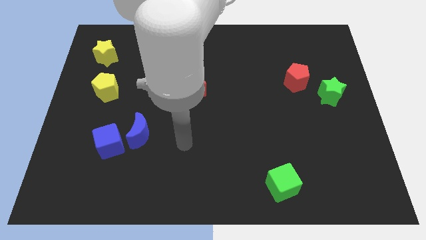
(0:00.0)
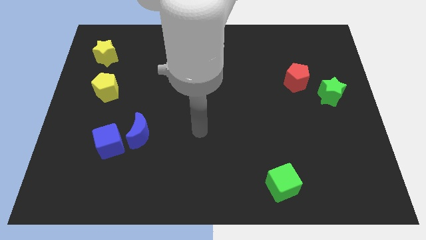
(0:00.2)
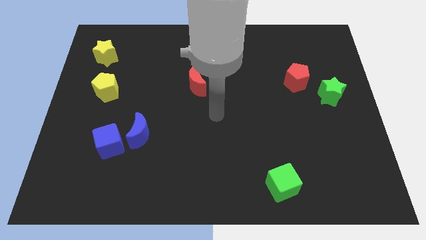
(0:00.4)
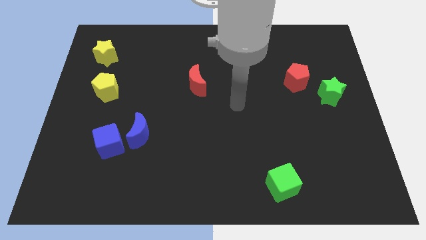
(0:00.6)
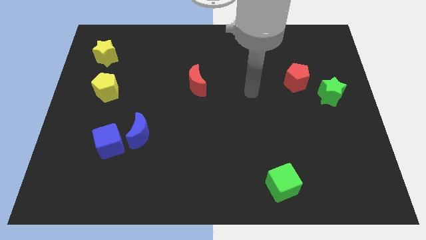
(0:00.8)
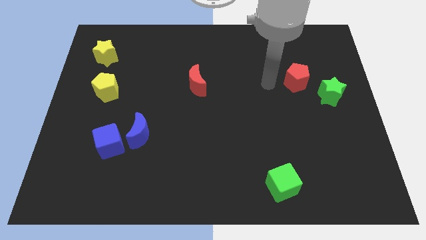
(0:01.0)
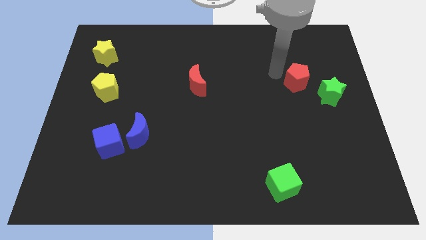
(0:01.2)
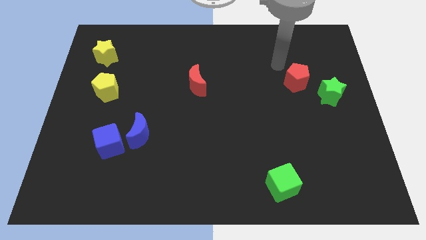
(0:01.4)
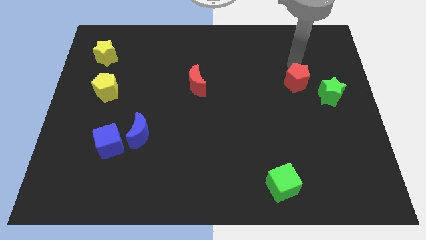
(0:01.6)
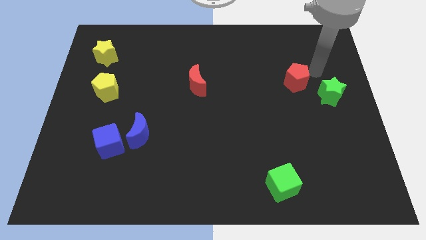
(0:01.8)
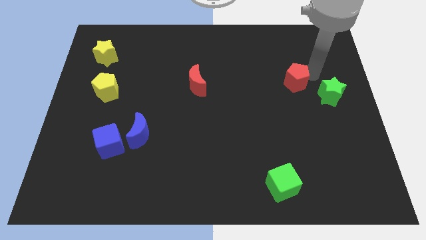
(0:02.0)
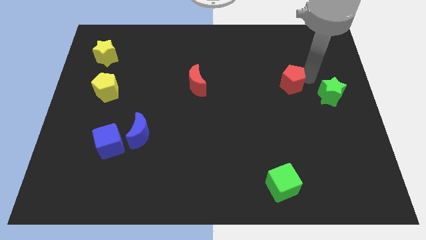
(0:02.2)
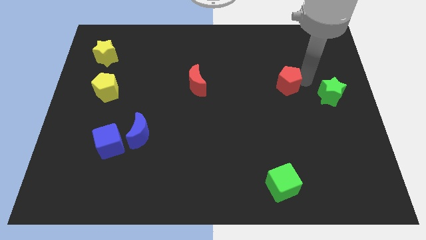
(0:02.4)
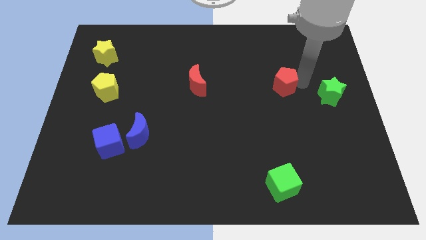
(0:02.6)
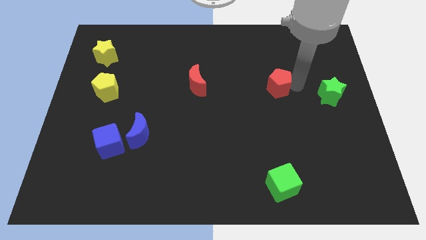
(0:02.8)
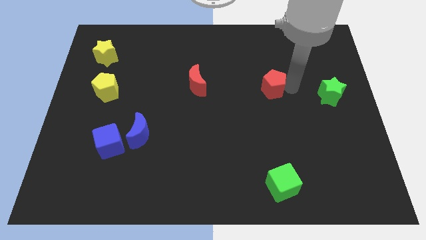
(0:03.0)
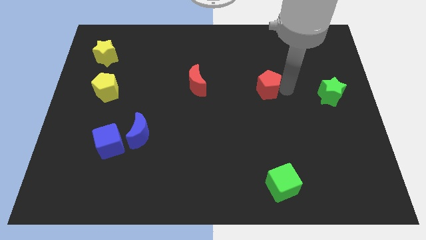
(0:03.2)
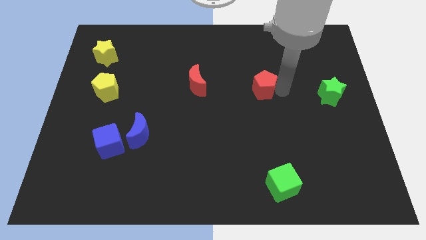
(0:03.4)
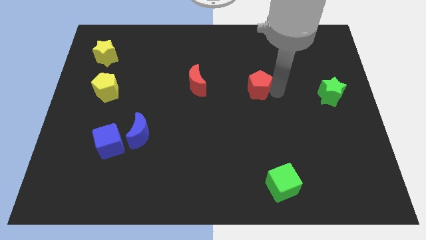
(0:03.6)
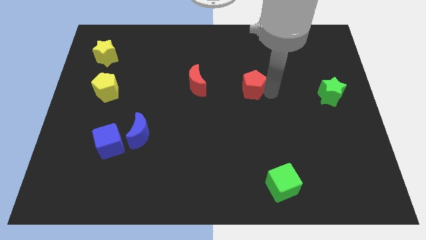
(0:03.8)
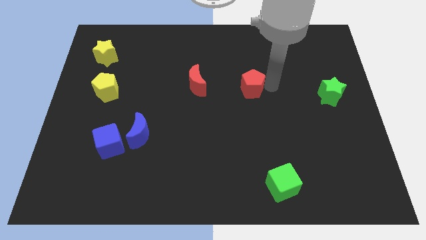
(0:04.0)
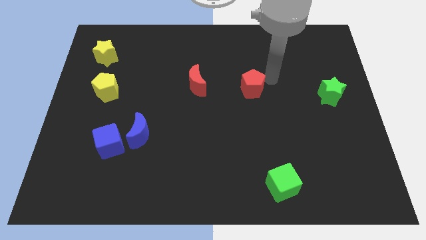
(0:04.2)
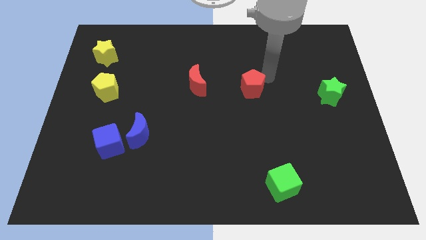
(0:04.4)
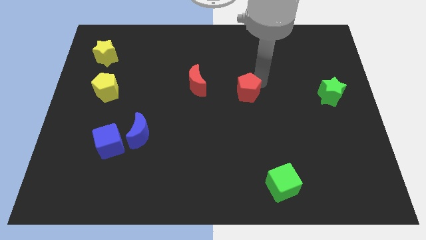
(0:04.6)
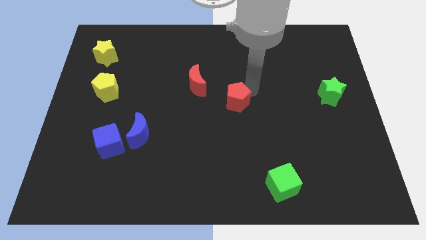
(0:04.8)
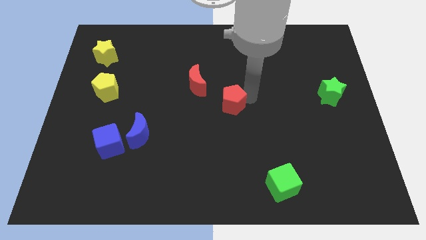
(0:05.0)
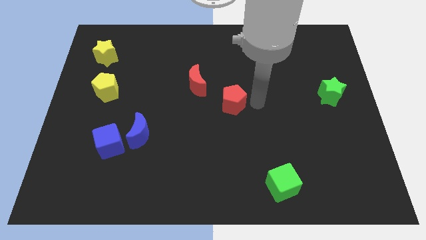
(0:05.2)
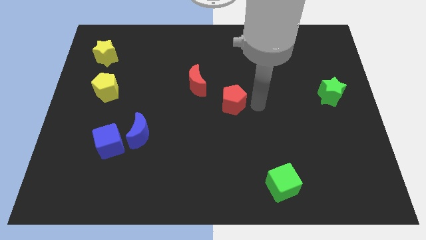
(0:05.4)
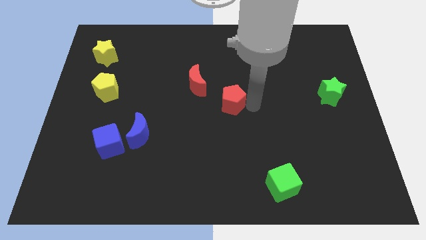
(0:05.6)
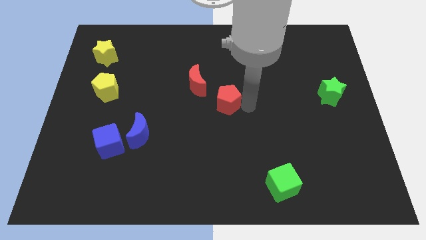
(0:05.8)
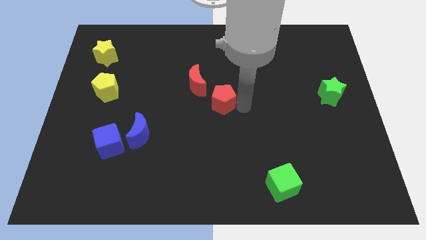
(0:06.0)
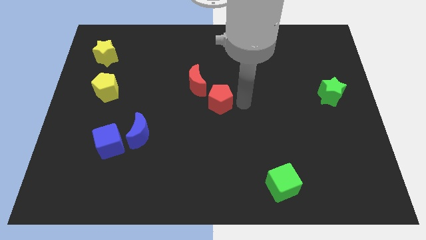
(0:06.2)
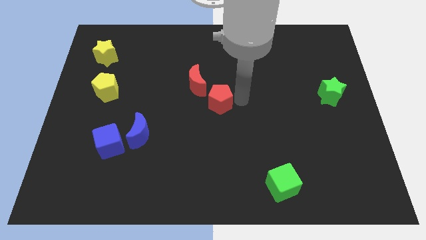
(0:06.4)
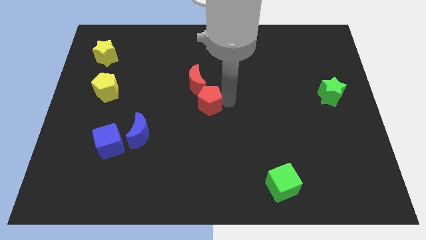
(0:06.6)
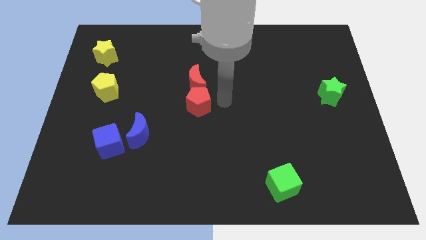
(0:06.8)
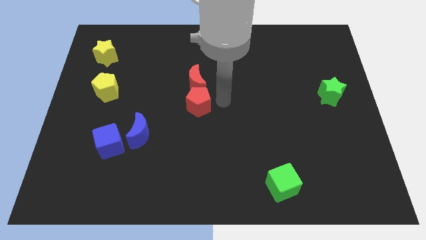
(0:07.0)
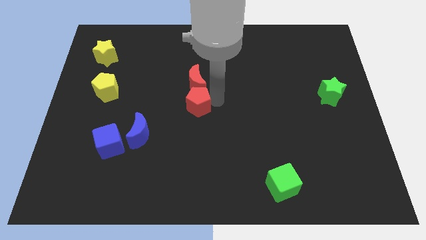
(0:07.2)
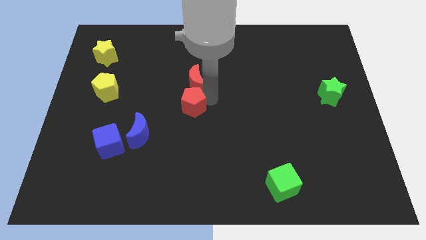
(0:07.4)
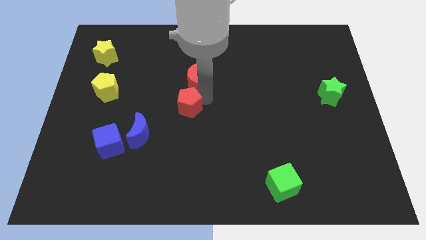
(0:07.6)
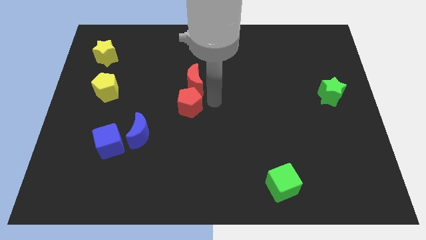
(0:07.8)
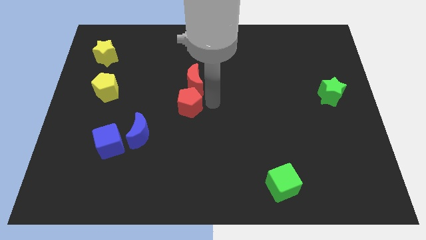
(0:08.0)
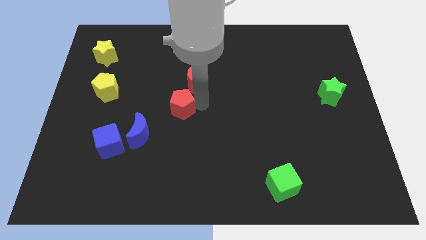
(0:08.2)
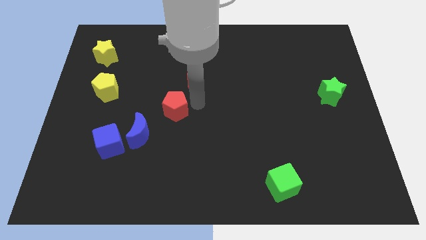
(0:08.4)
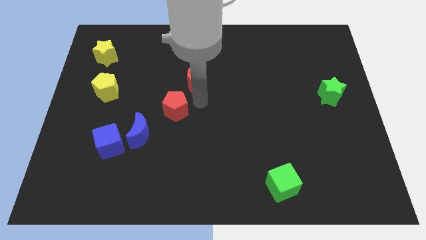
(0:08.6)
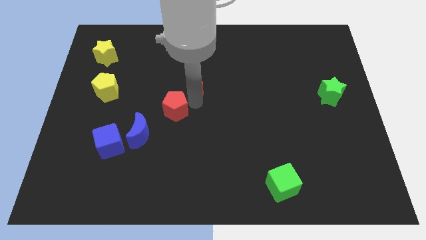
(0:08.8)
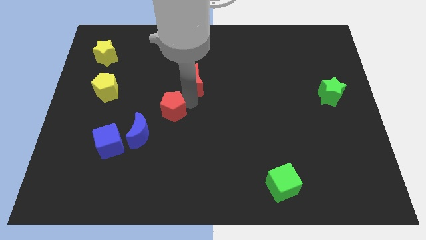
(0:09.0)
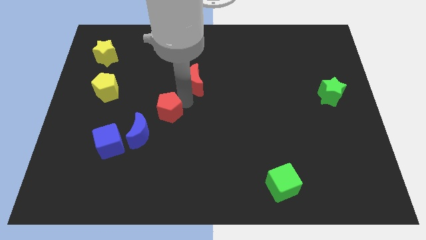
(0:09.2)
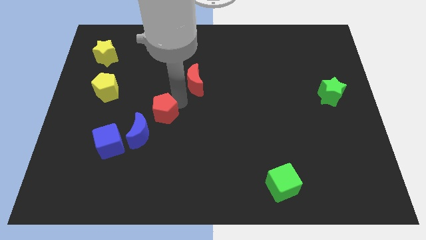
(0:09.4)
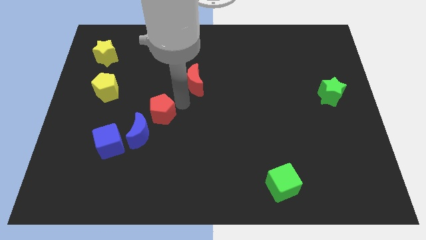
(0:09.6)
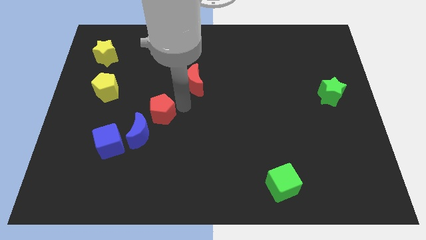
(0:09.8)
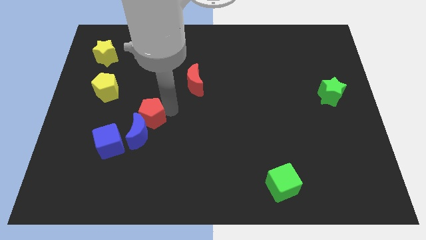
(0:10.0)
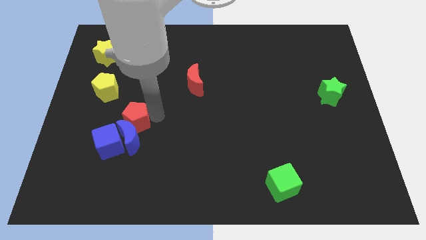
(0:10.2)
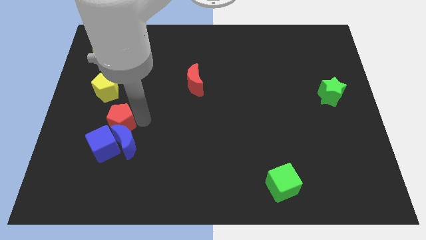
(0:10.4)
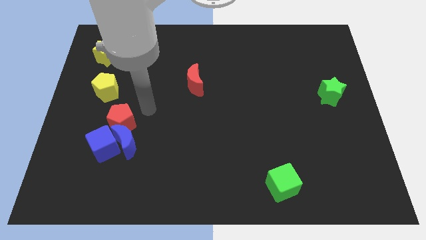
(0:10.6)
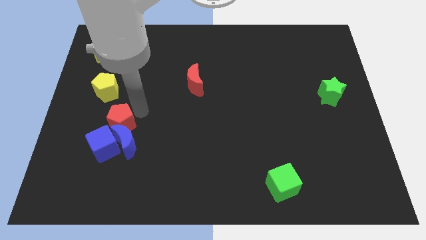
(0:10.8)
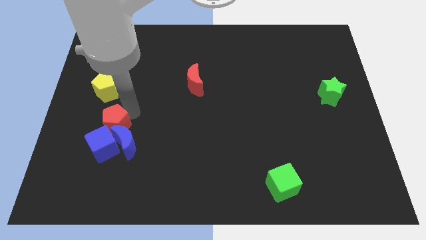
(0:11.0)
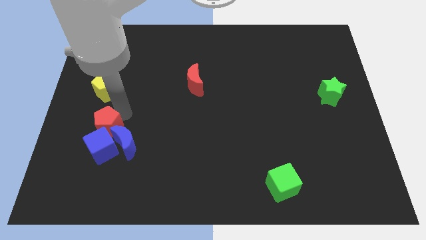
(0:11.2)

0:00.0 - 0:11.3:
move the red pentagon just left of the blue moon

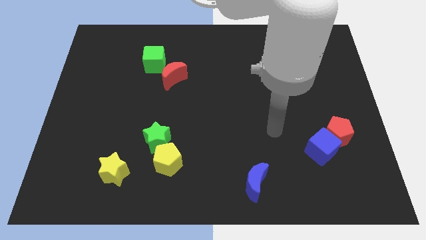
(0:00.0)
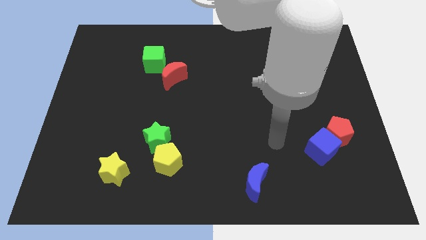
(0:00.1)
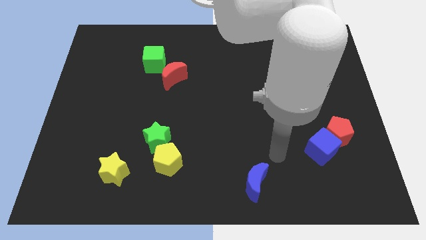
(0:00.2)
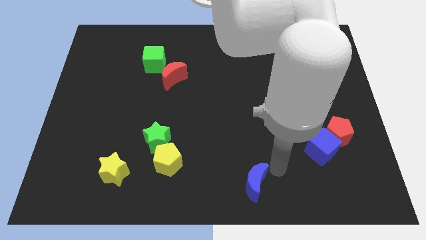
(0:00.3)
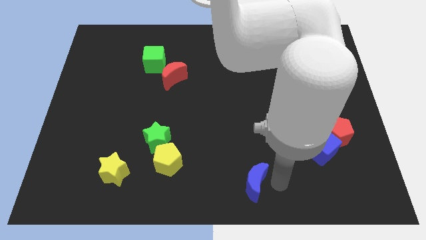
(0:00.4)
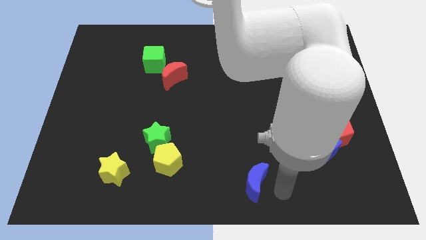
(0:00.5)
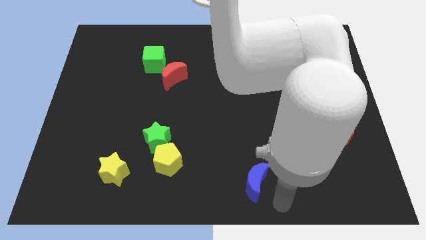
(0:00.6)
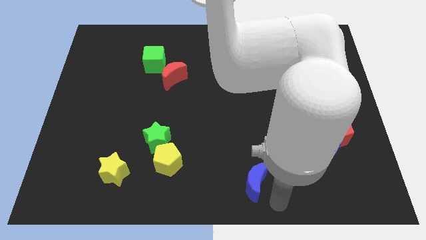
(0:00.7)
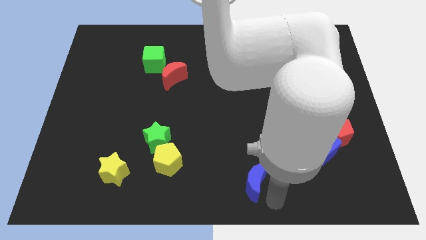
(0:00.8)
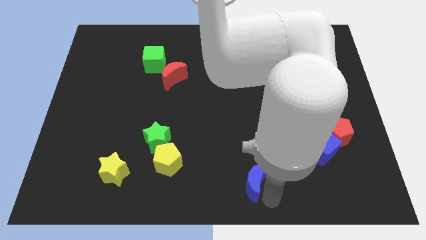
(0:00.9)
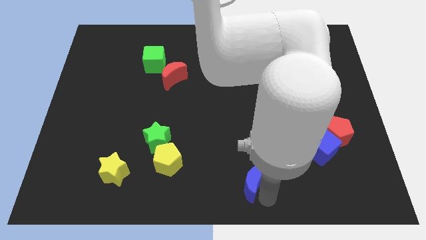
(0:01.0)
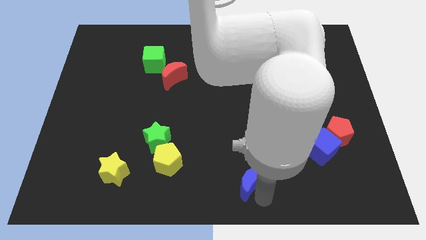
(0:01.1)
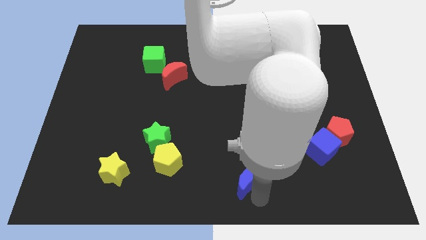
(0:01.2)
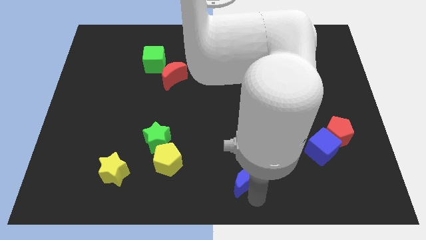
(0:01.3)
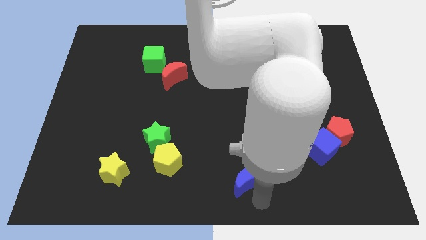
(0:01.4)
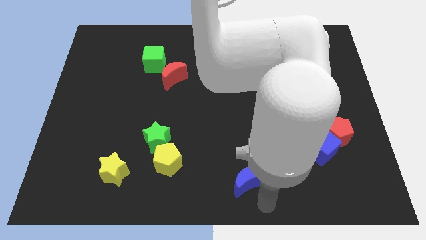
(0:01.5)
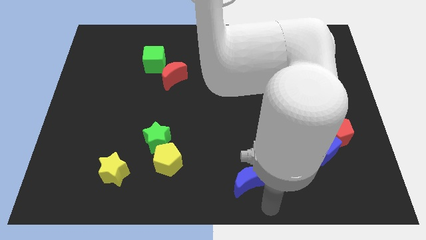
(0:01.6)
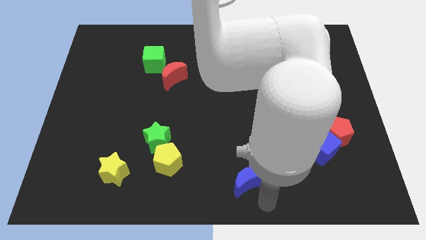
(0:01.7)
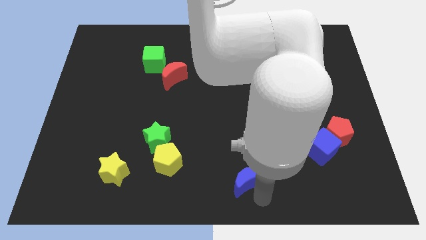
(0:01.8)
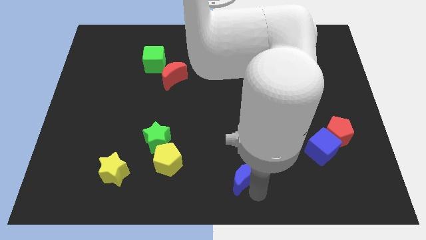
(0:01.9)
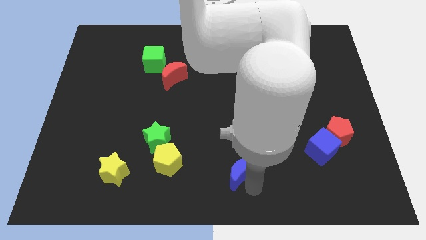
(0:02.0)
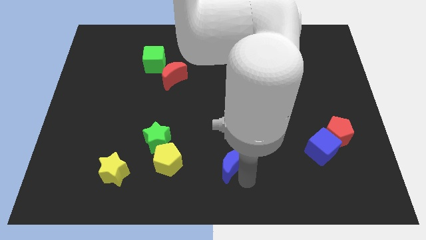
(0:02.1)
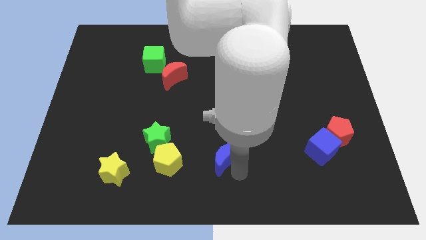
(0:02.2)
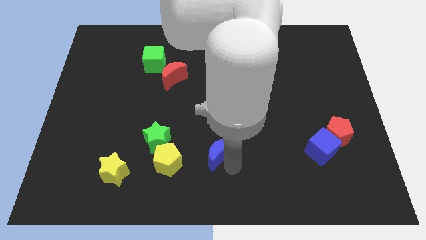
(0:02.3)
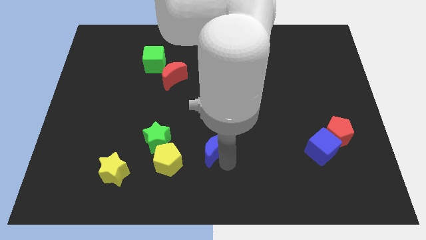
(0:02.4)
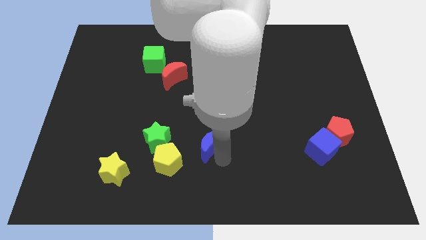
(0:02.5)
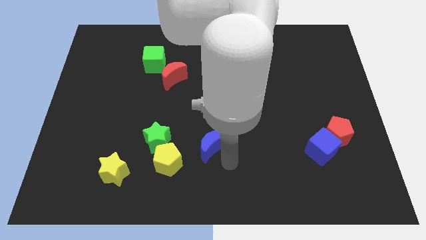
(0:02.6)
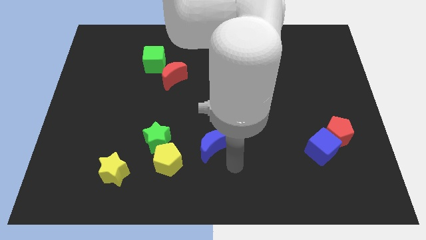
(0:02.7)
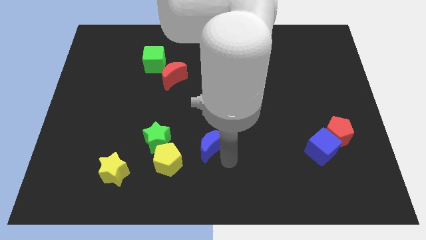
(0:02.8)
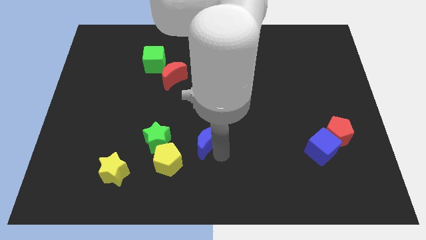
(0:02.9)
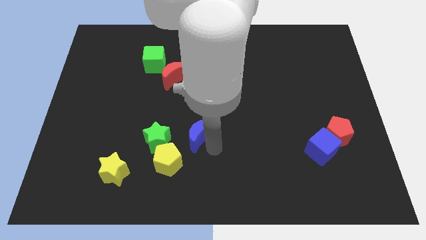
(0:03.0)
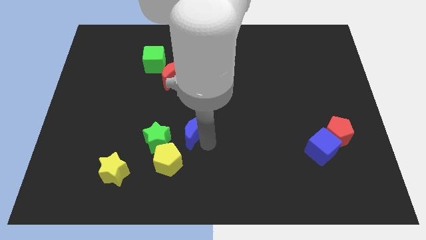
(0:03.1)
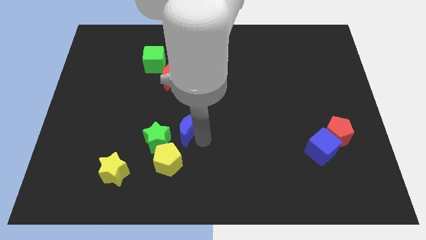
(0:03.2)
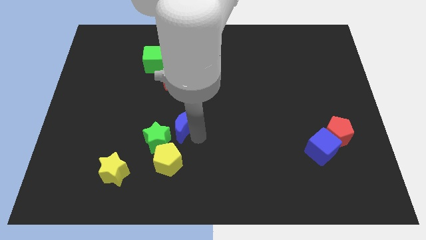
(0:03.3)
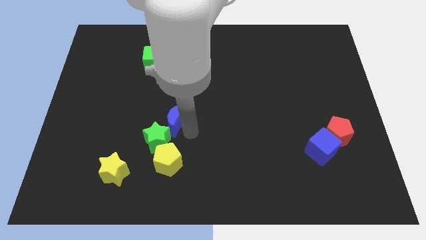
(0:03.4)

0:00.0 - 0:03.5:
slide the blue moon to the top side of the green star
